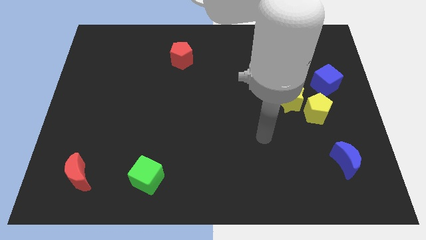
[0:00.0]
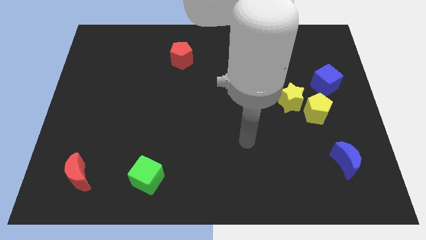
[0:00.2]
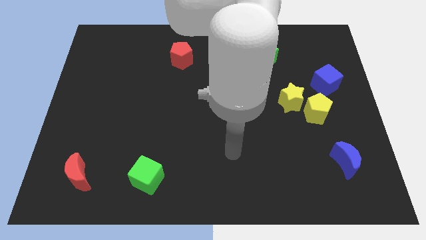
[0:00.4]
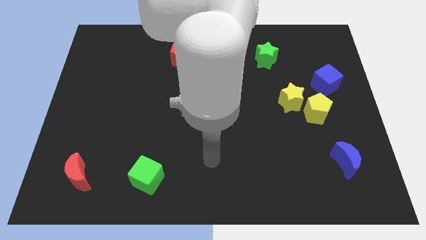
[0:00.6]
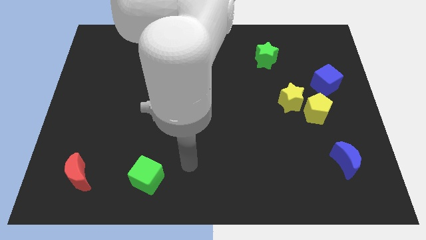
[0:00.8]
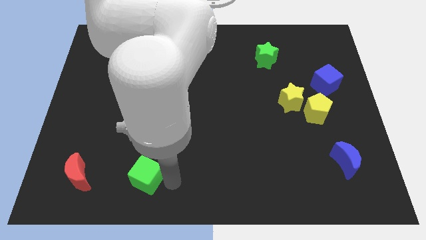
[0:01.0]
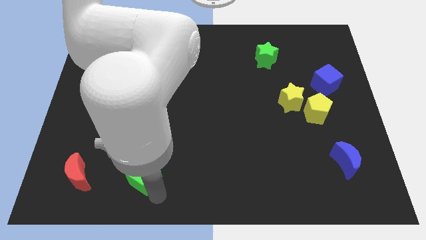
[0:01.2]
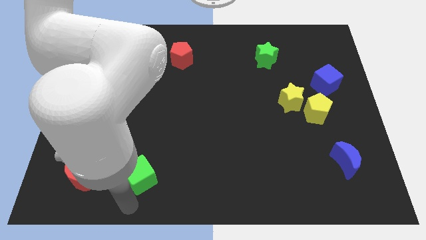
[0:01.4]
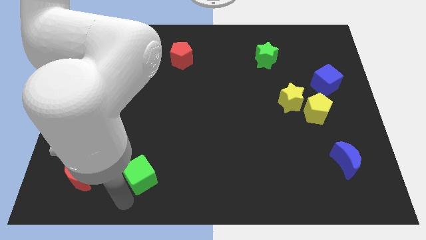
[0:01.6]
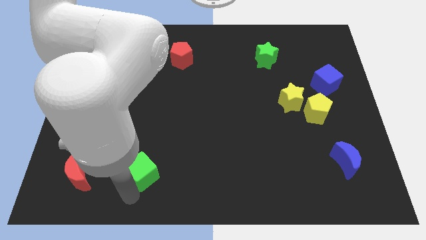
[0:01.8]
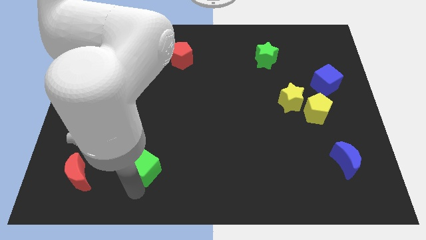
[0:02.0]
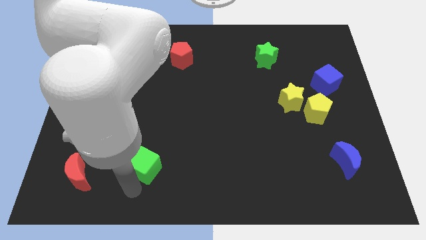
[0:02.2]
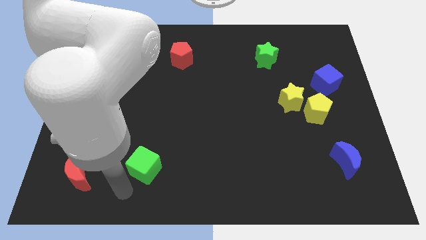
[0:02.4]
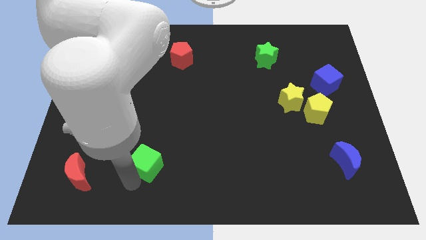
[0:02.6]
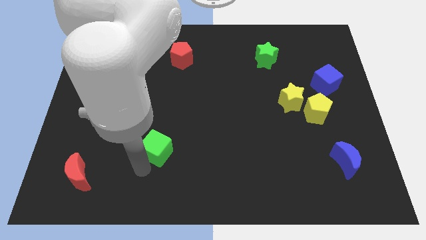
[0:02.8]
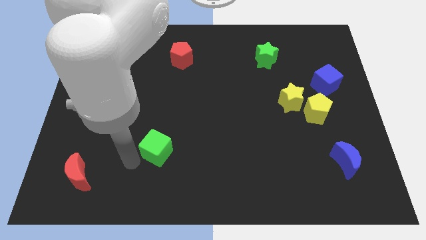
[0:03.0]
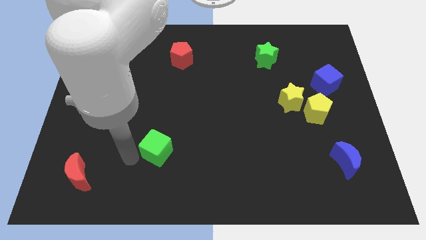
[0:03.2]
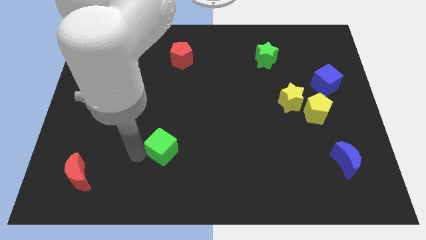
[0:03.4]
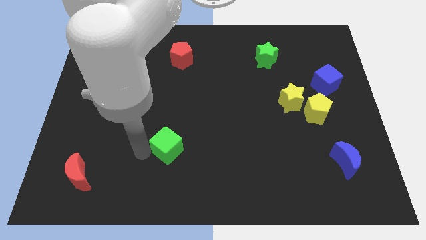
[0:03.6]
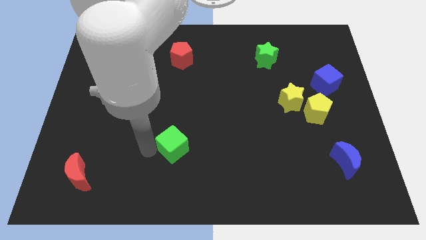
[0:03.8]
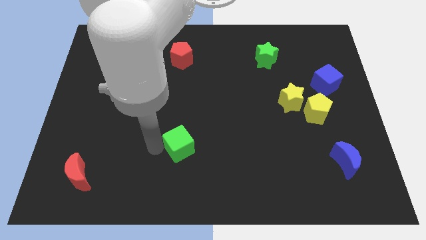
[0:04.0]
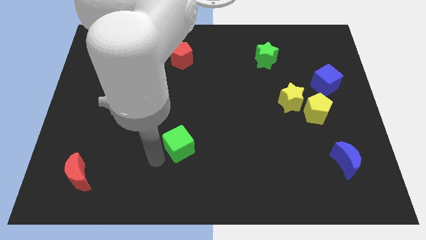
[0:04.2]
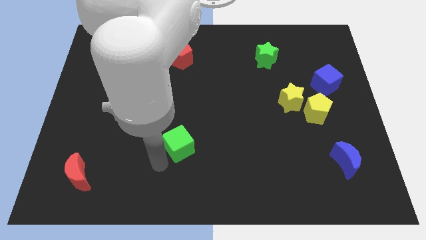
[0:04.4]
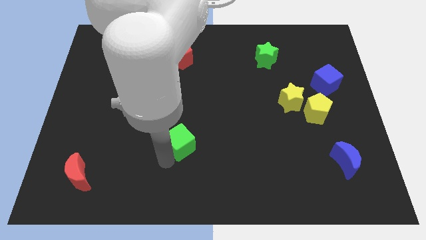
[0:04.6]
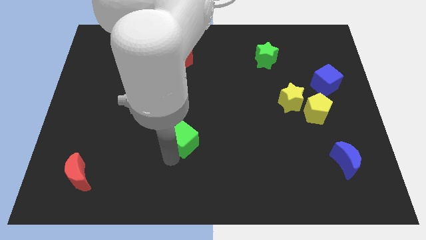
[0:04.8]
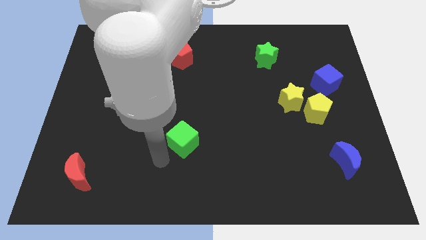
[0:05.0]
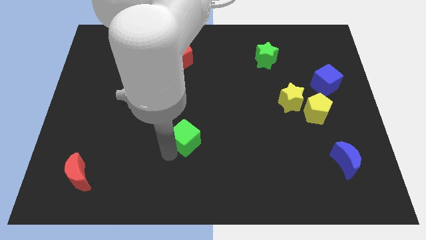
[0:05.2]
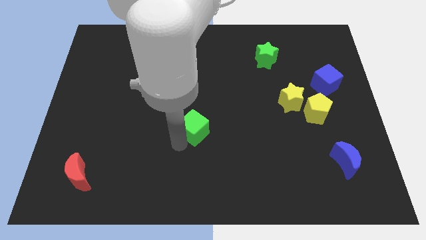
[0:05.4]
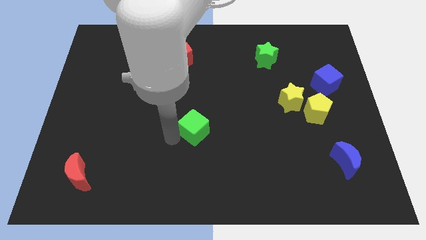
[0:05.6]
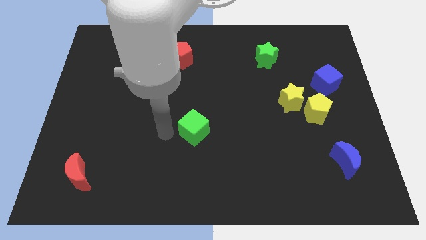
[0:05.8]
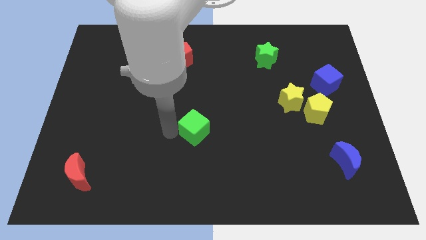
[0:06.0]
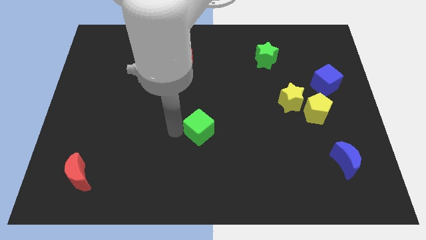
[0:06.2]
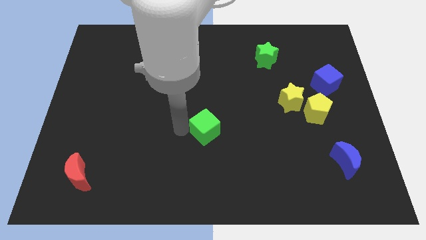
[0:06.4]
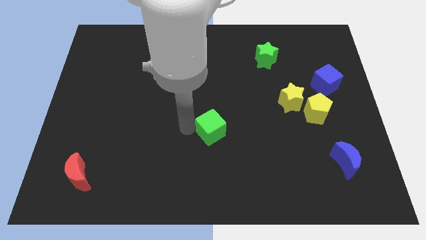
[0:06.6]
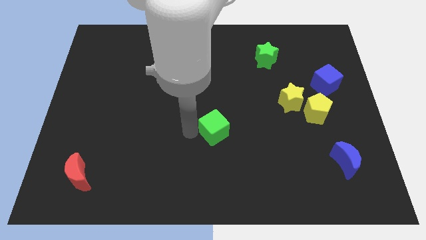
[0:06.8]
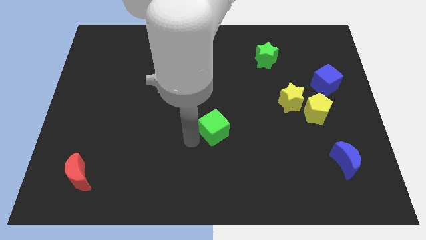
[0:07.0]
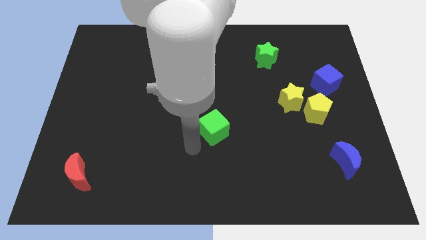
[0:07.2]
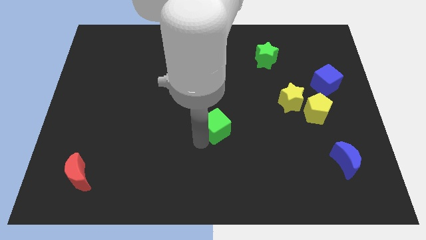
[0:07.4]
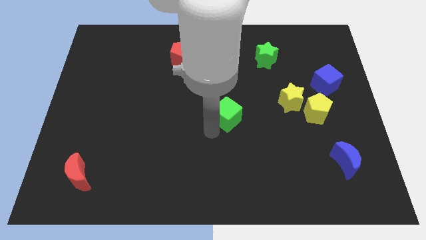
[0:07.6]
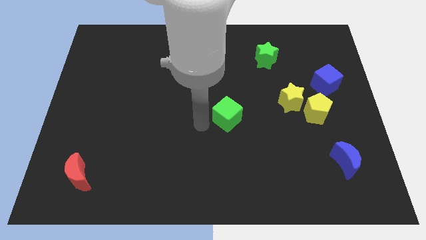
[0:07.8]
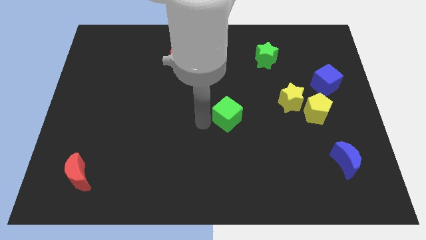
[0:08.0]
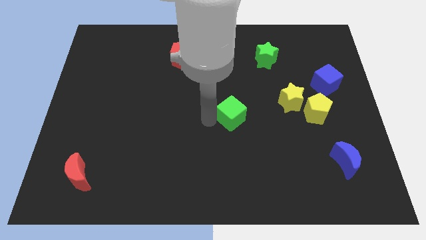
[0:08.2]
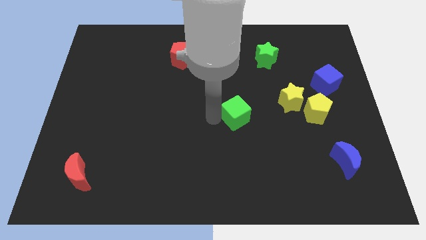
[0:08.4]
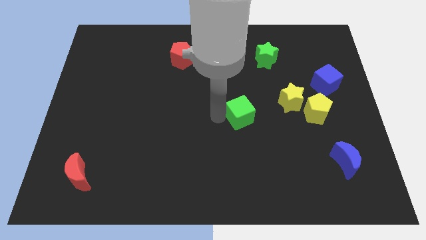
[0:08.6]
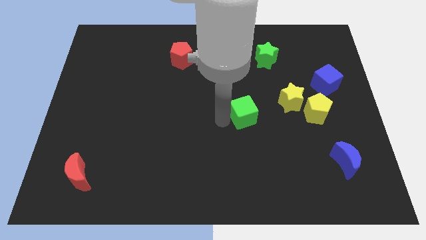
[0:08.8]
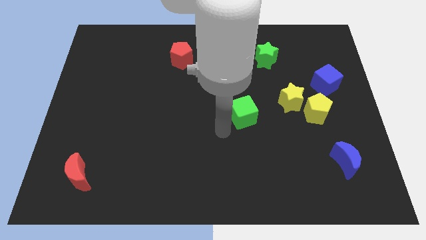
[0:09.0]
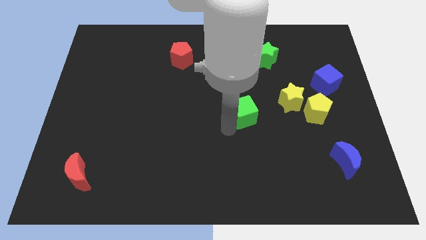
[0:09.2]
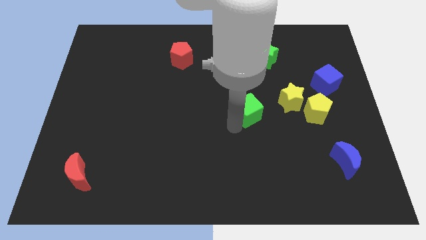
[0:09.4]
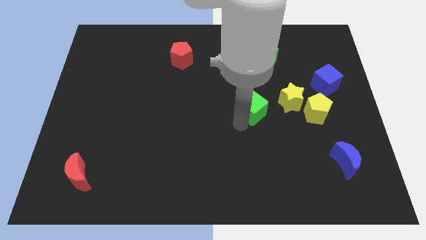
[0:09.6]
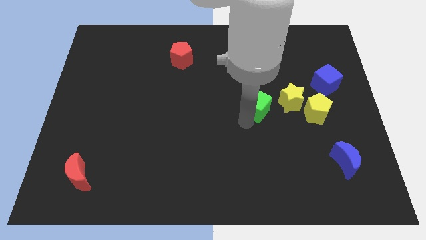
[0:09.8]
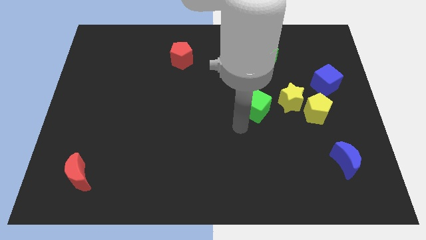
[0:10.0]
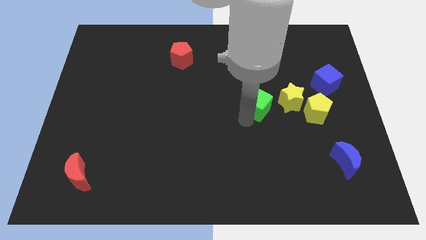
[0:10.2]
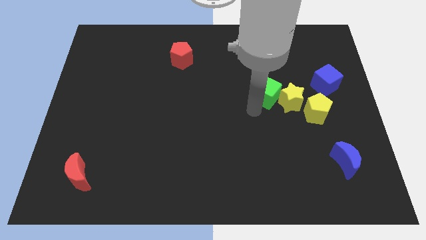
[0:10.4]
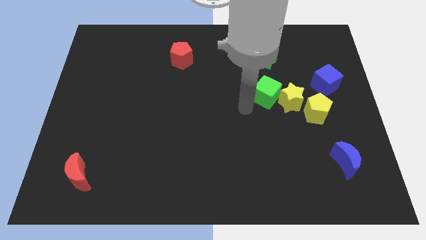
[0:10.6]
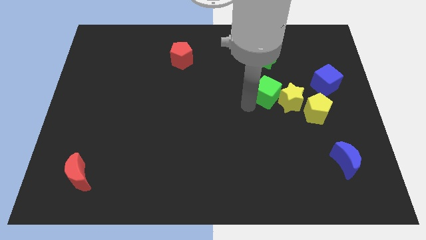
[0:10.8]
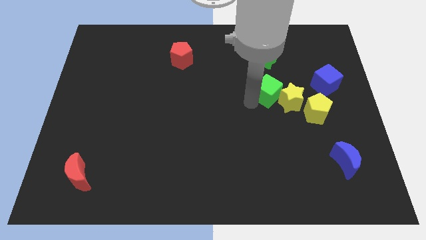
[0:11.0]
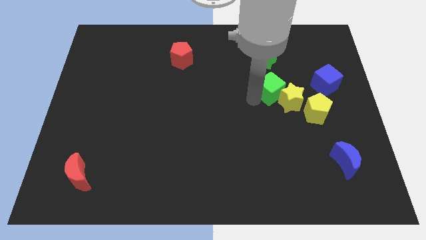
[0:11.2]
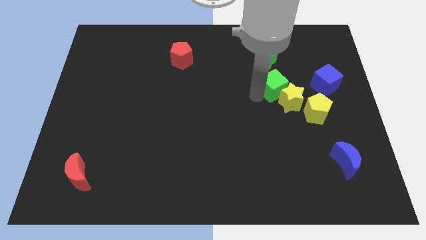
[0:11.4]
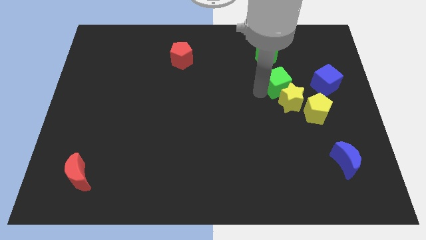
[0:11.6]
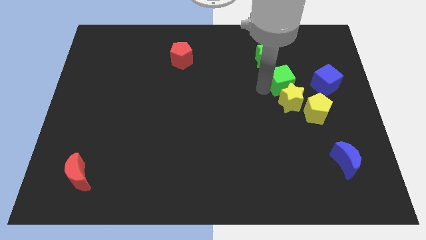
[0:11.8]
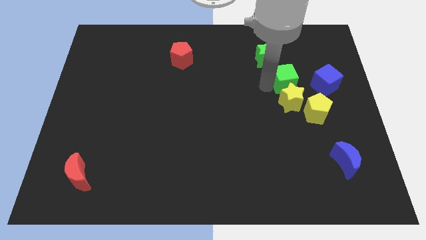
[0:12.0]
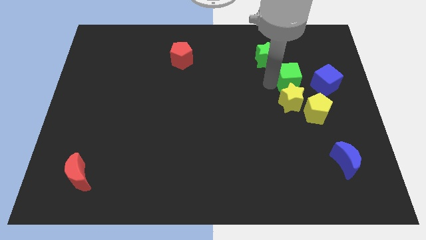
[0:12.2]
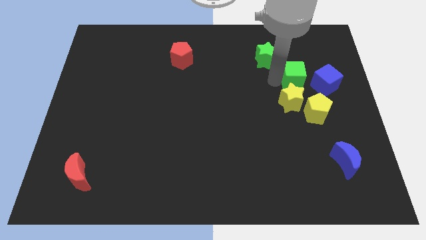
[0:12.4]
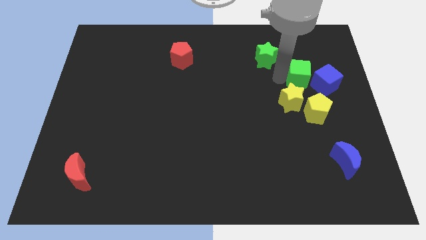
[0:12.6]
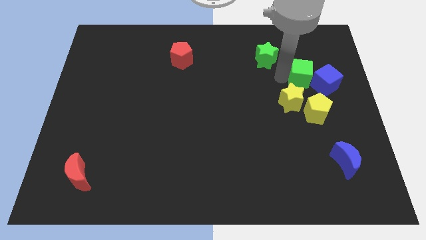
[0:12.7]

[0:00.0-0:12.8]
slide the green cube towards the blue cube

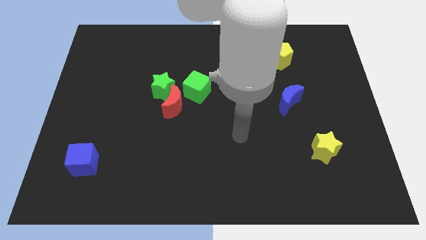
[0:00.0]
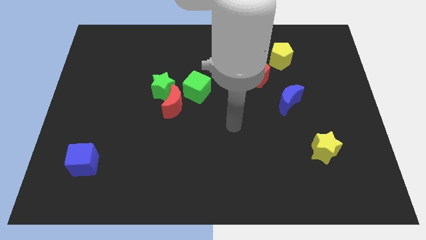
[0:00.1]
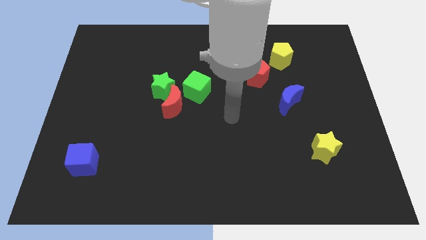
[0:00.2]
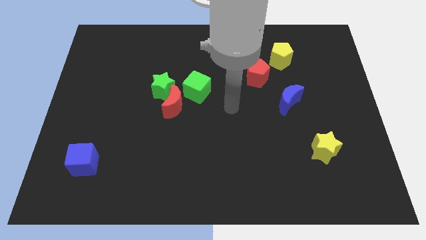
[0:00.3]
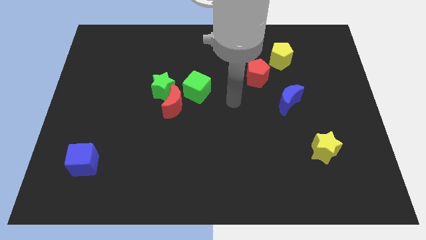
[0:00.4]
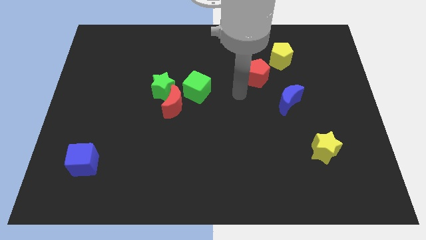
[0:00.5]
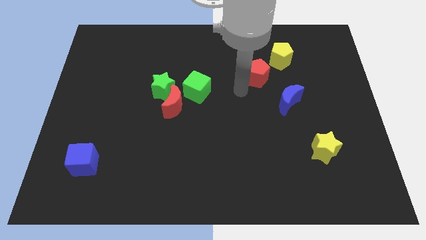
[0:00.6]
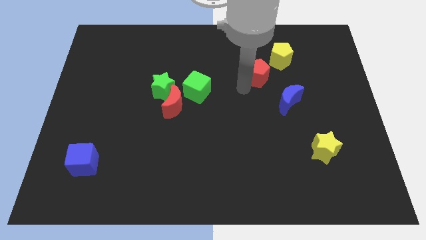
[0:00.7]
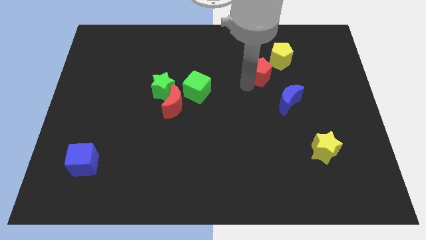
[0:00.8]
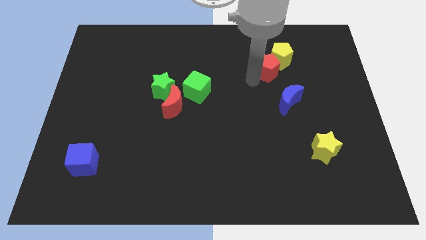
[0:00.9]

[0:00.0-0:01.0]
push the red pentagon to the yellow pentagon

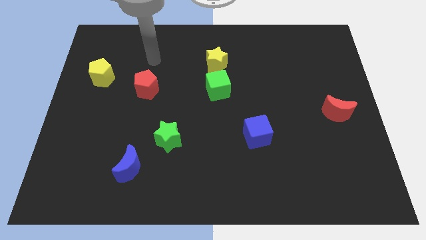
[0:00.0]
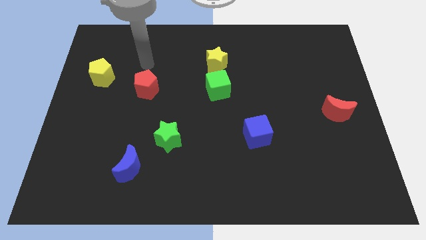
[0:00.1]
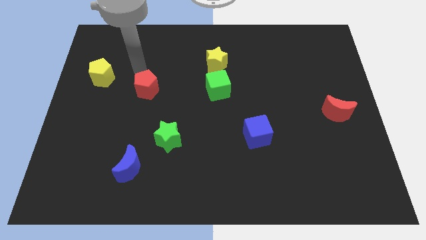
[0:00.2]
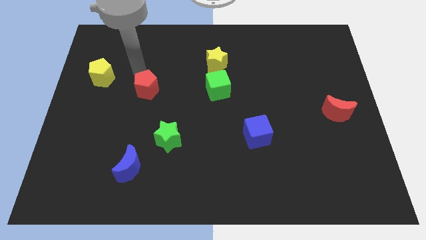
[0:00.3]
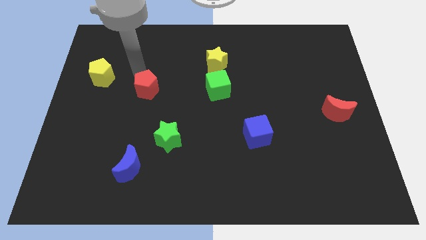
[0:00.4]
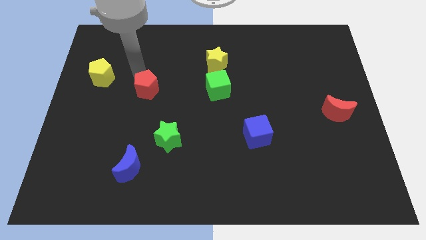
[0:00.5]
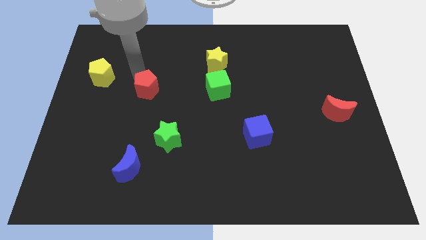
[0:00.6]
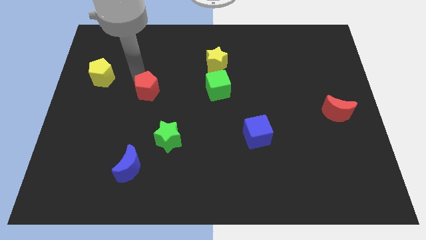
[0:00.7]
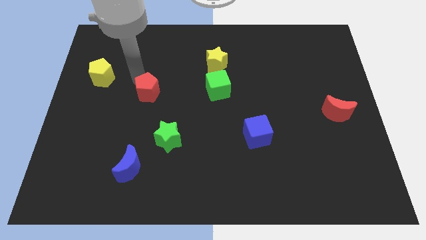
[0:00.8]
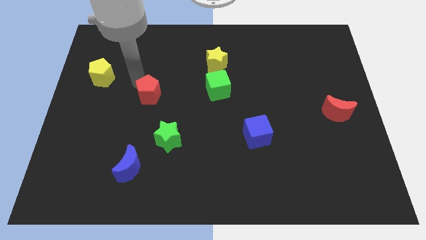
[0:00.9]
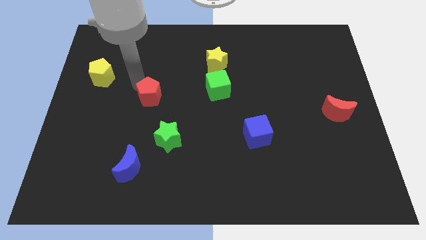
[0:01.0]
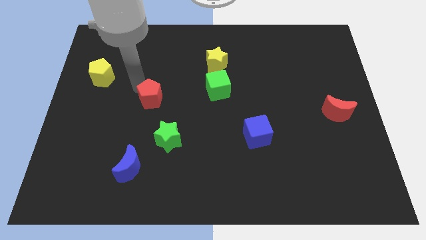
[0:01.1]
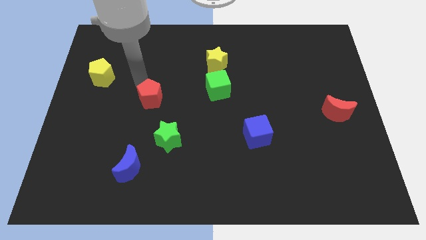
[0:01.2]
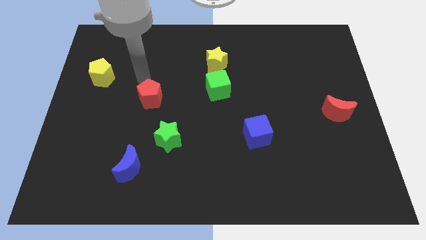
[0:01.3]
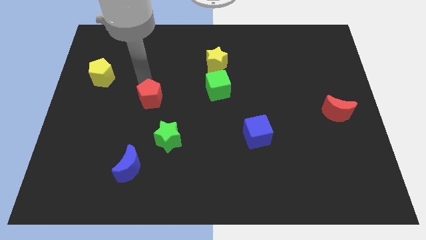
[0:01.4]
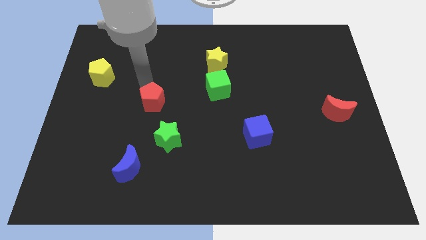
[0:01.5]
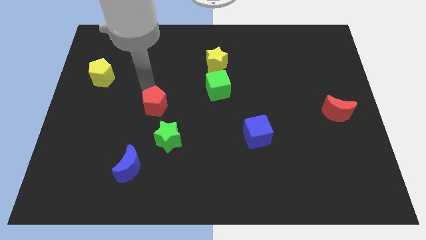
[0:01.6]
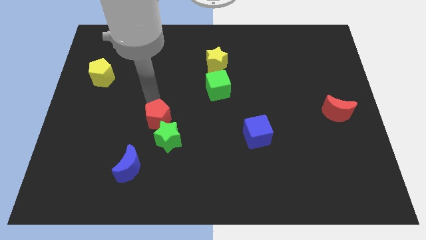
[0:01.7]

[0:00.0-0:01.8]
push the red pentagon close to the green star
